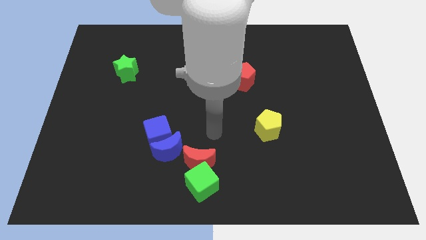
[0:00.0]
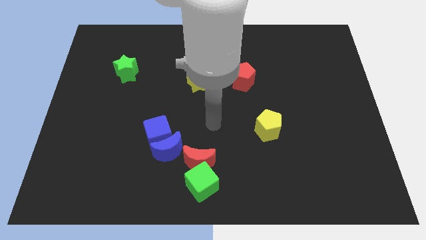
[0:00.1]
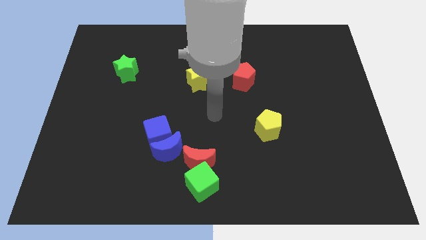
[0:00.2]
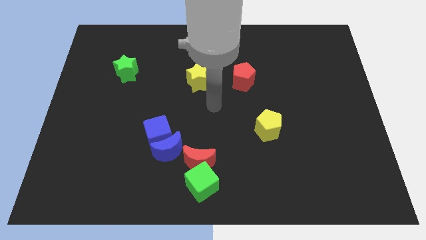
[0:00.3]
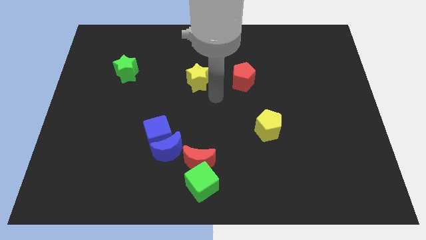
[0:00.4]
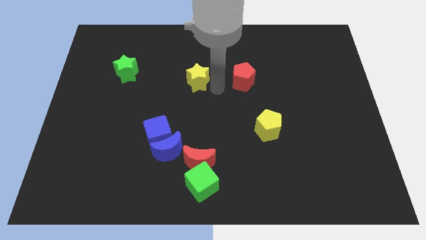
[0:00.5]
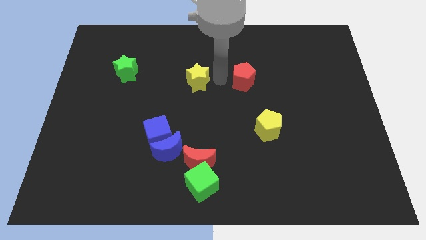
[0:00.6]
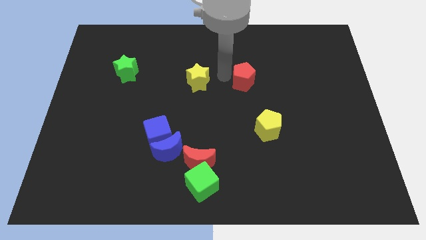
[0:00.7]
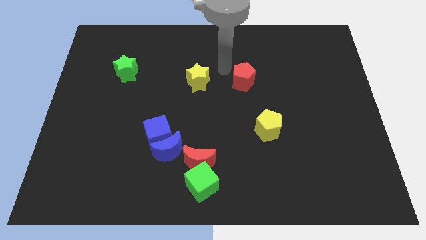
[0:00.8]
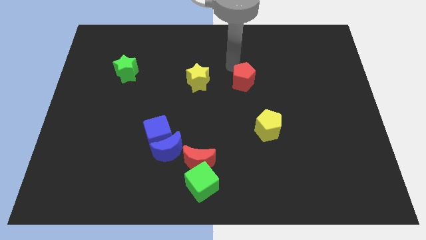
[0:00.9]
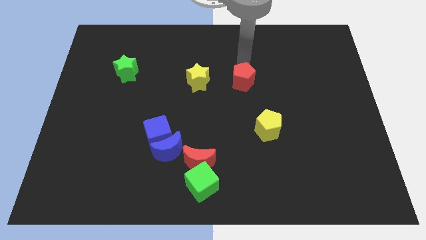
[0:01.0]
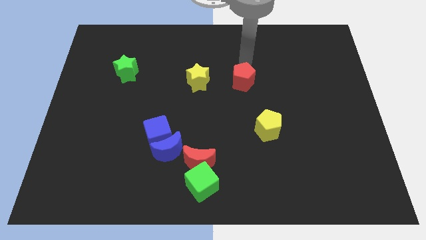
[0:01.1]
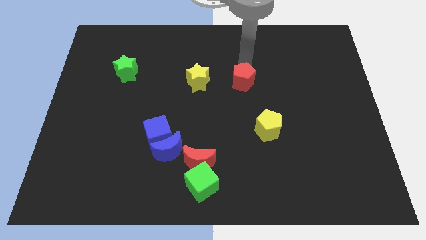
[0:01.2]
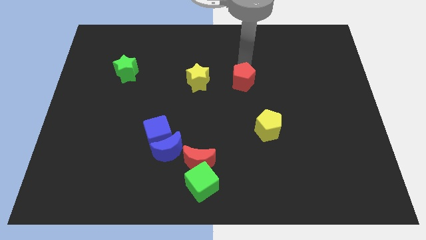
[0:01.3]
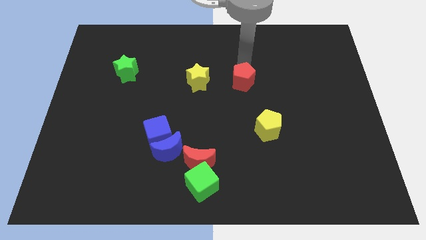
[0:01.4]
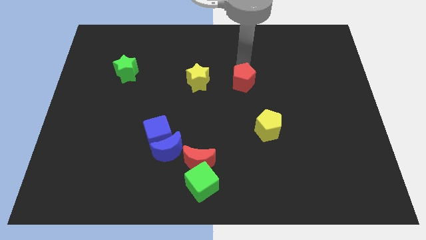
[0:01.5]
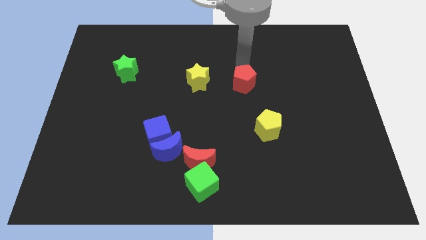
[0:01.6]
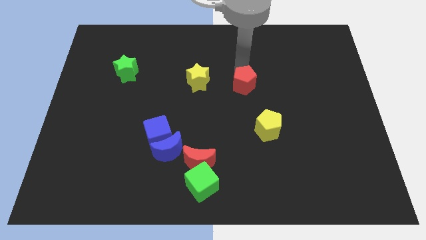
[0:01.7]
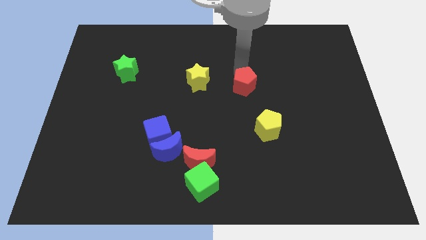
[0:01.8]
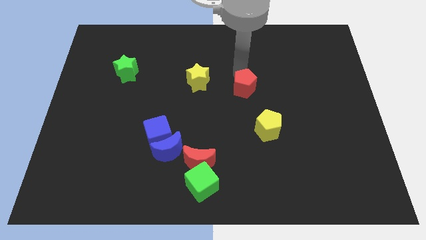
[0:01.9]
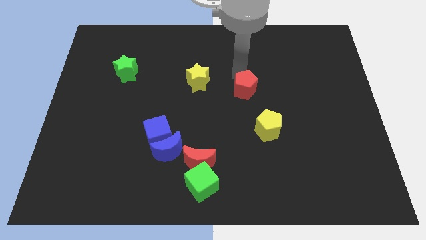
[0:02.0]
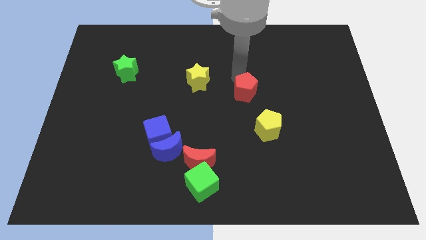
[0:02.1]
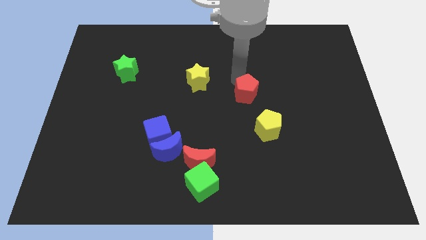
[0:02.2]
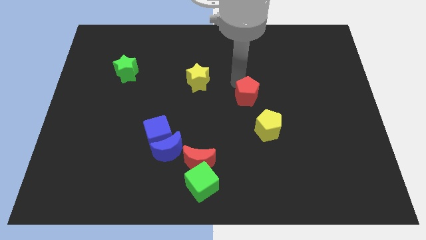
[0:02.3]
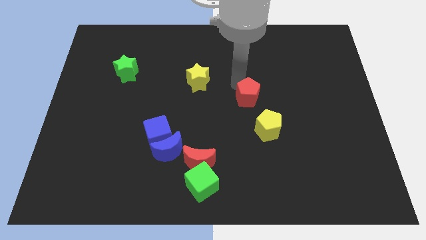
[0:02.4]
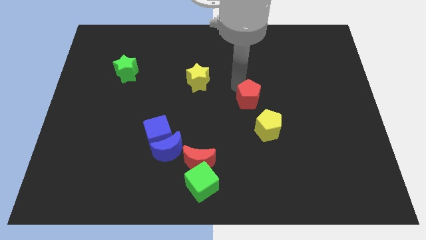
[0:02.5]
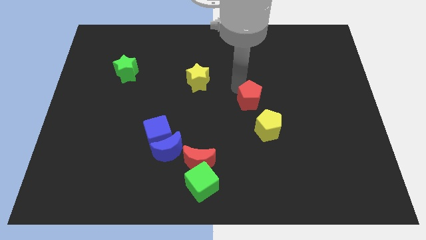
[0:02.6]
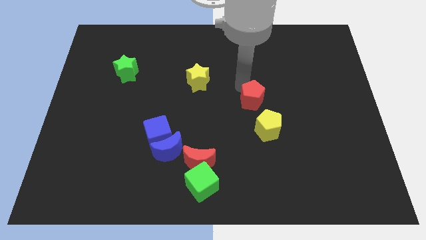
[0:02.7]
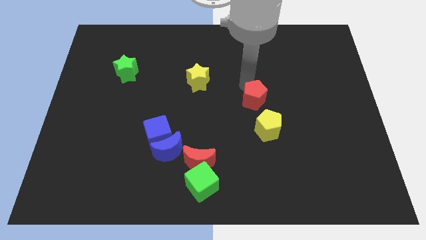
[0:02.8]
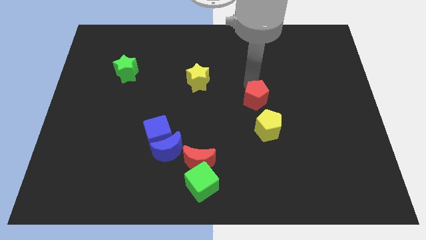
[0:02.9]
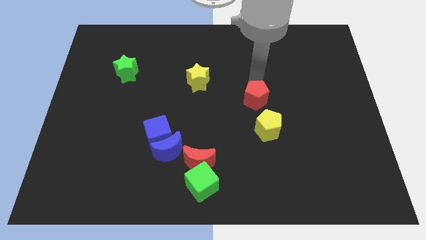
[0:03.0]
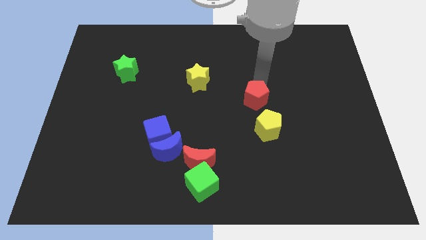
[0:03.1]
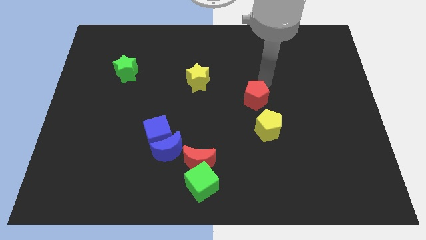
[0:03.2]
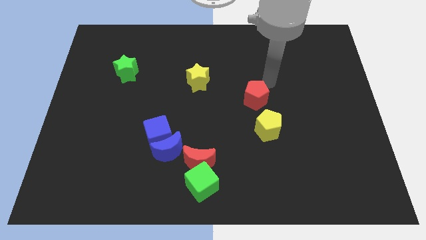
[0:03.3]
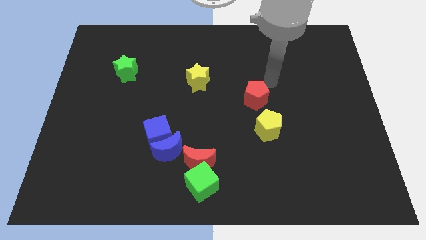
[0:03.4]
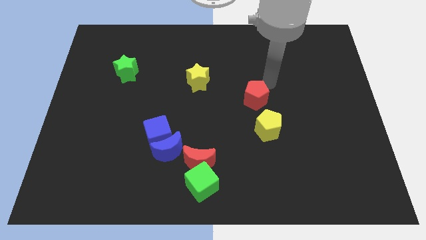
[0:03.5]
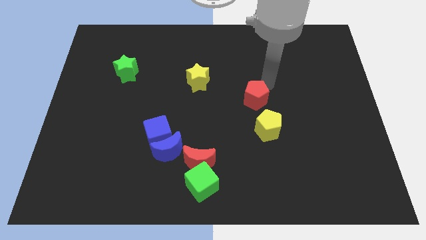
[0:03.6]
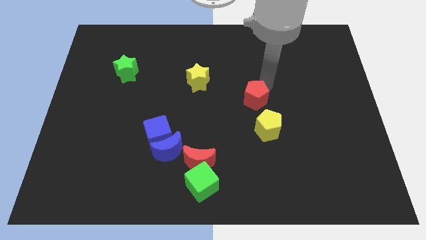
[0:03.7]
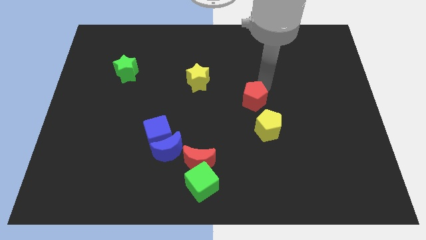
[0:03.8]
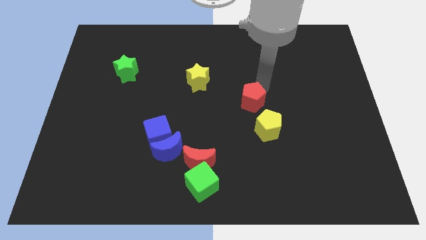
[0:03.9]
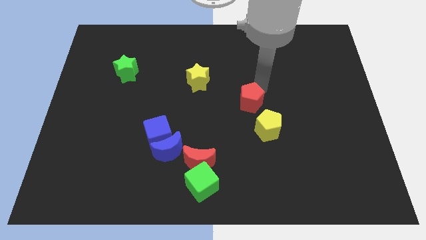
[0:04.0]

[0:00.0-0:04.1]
push the red pentagon slightly downwards

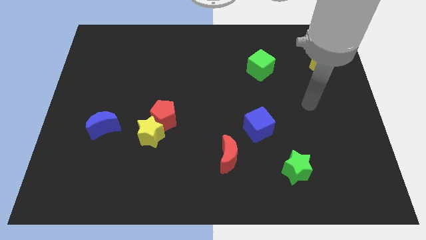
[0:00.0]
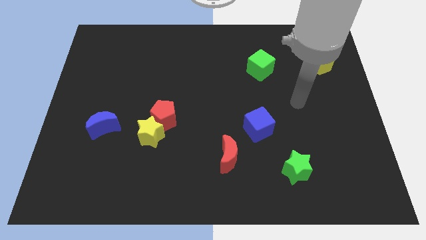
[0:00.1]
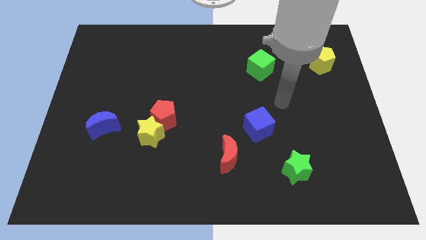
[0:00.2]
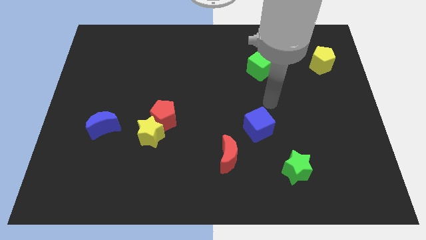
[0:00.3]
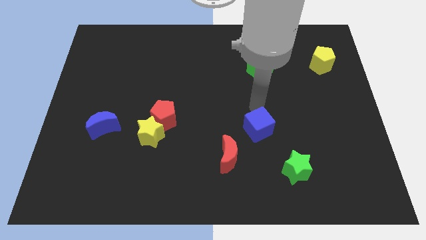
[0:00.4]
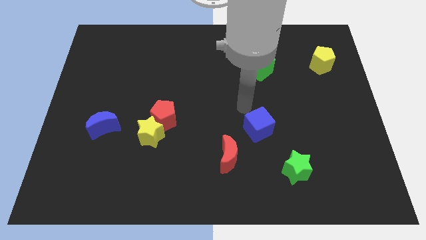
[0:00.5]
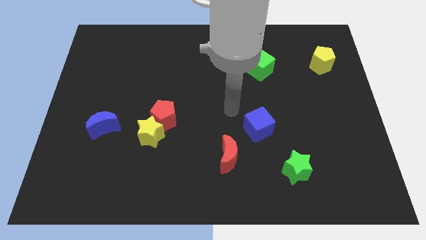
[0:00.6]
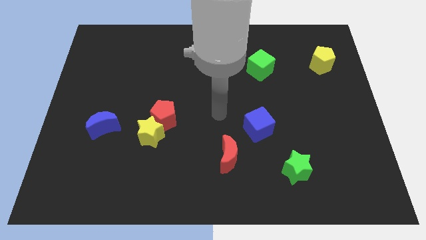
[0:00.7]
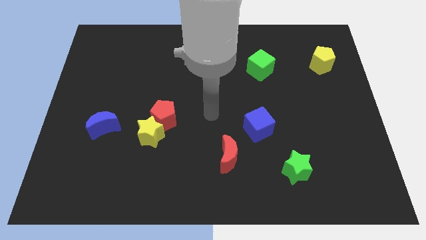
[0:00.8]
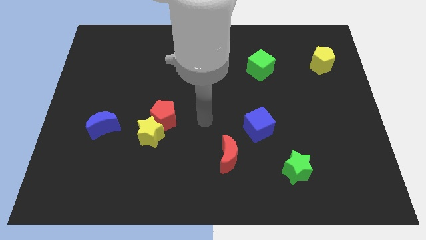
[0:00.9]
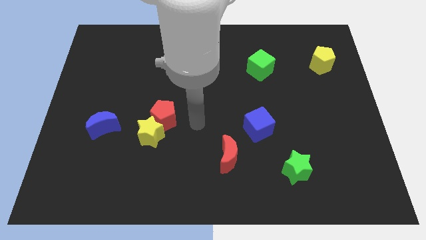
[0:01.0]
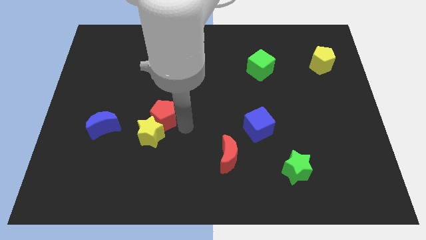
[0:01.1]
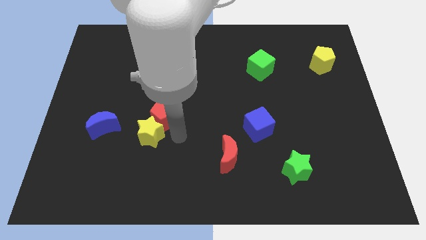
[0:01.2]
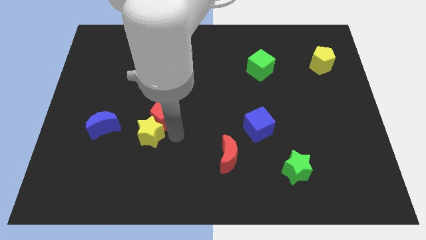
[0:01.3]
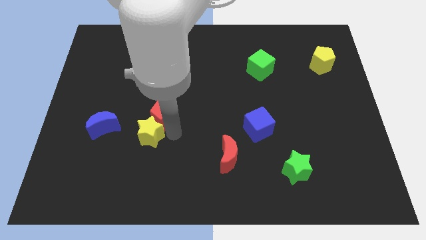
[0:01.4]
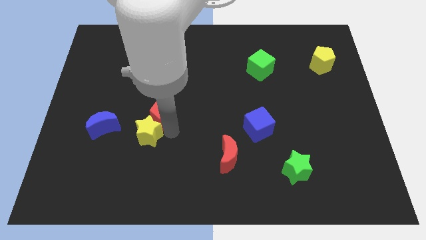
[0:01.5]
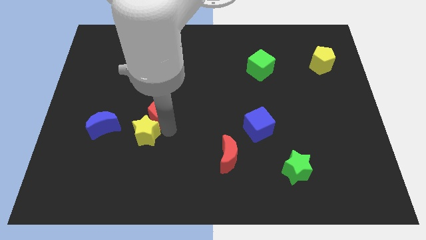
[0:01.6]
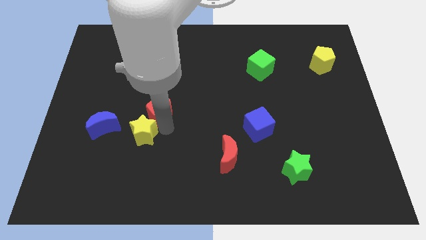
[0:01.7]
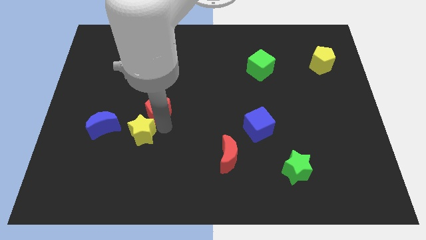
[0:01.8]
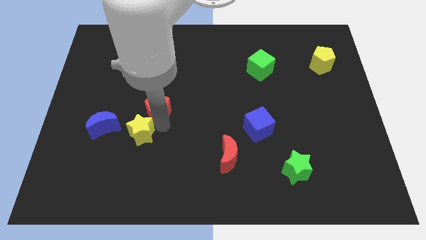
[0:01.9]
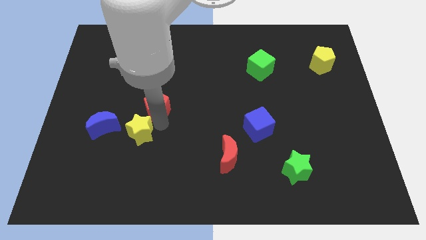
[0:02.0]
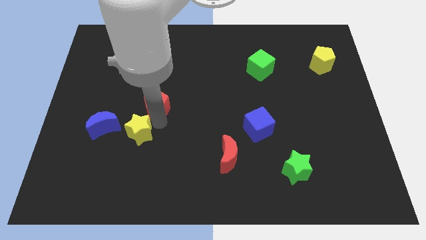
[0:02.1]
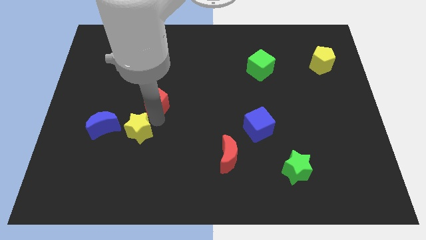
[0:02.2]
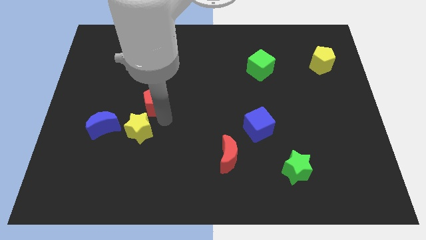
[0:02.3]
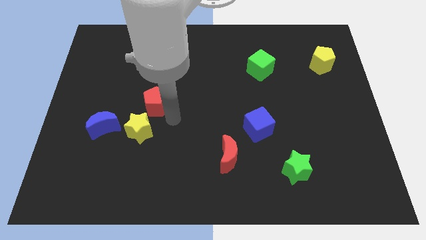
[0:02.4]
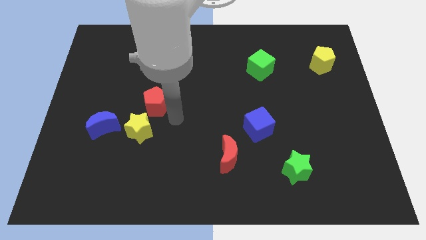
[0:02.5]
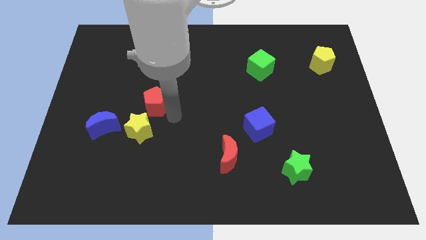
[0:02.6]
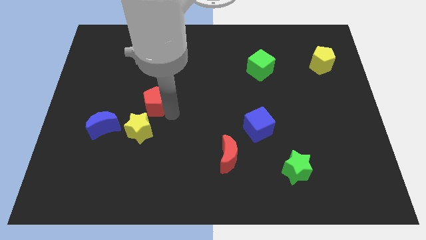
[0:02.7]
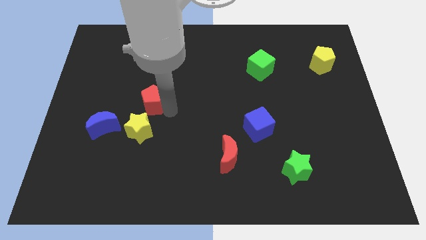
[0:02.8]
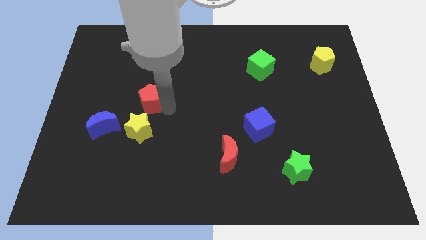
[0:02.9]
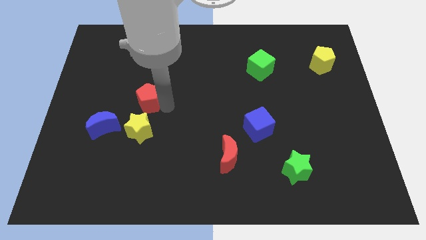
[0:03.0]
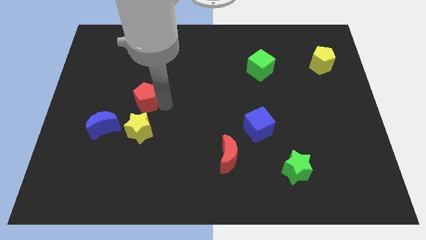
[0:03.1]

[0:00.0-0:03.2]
slide the red pentagon diagonally upwards and left slightly

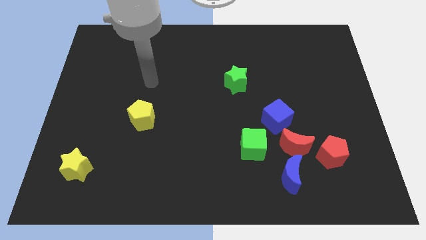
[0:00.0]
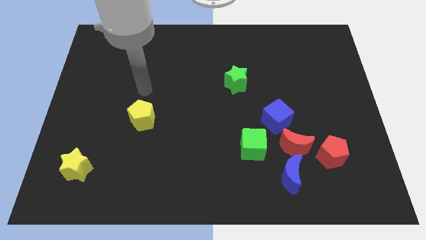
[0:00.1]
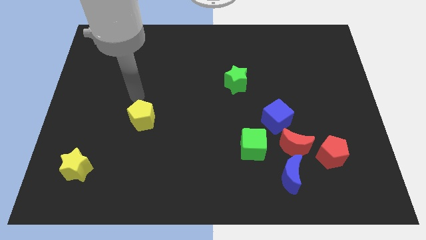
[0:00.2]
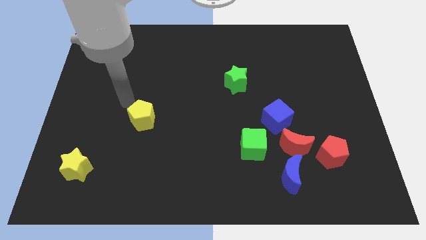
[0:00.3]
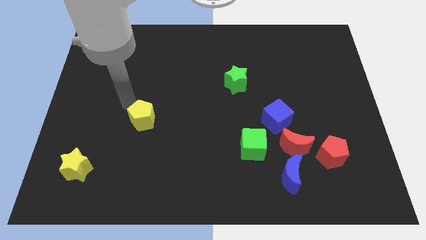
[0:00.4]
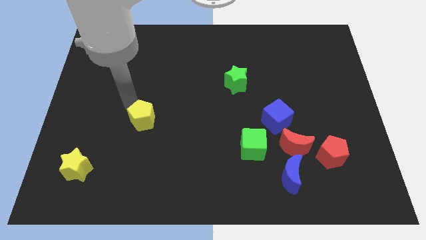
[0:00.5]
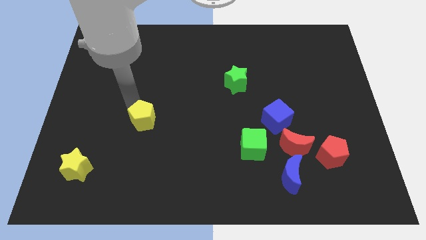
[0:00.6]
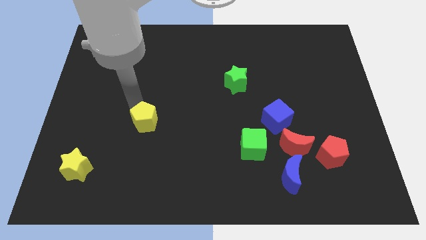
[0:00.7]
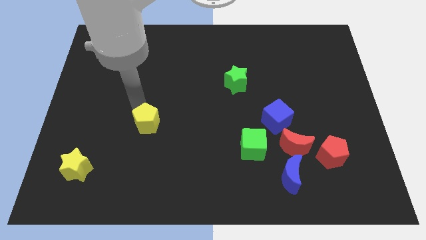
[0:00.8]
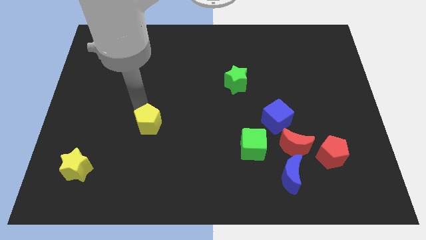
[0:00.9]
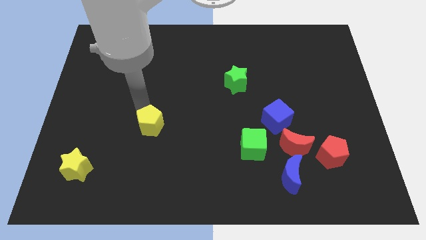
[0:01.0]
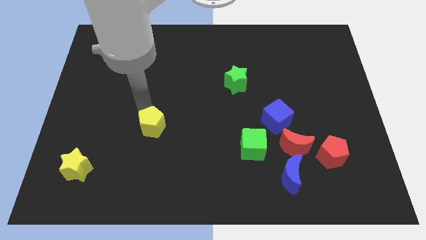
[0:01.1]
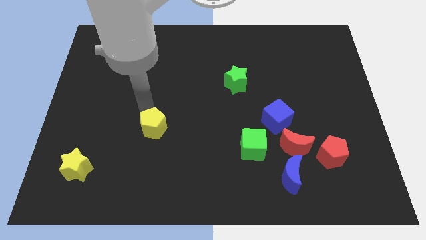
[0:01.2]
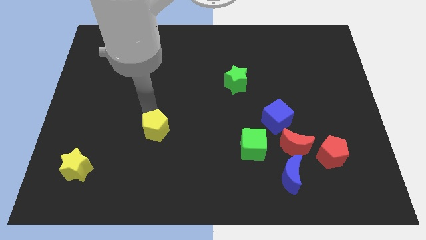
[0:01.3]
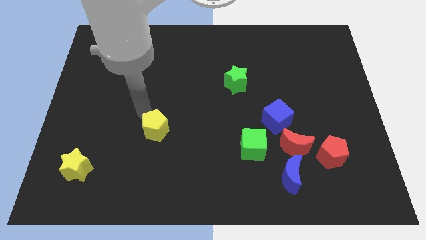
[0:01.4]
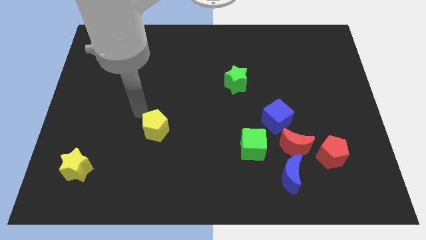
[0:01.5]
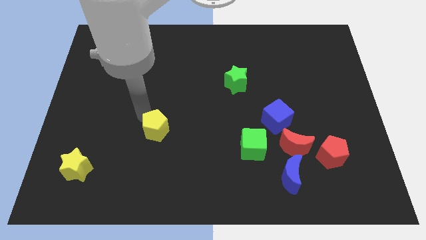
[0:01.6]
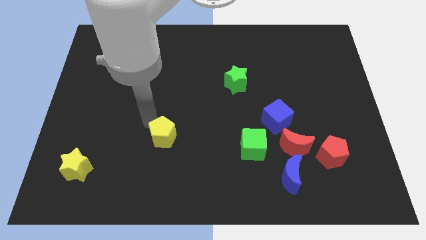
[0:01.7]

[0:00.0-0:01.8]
slide the yellow pentagon downwards and then right a little bit
